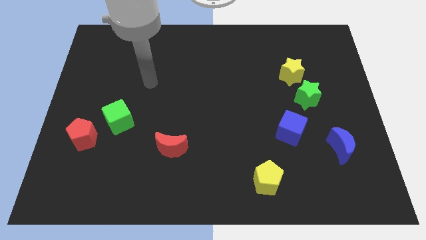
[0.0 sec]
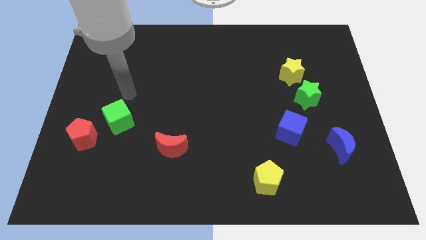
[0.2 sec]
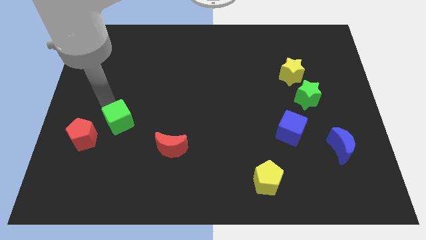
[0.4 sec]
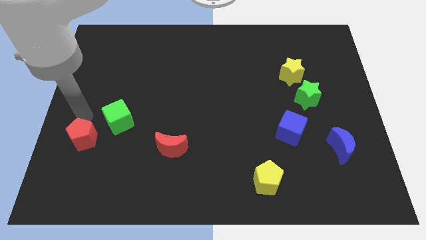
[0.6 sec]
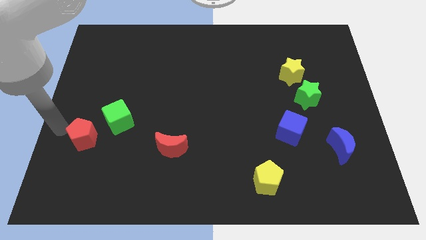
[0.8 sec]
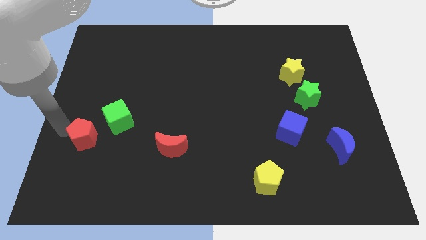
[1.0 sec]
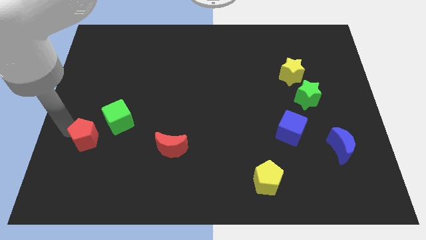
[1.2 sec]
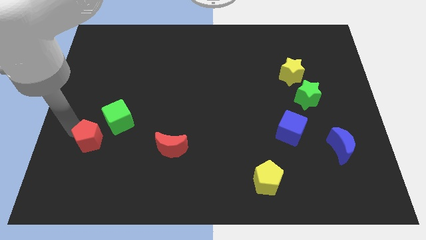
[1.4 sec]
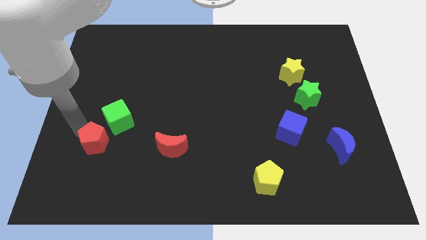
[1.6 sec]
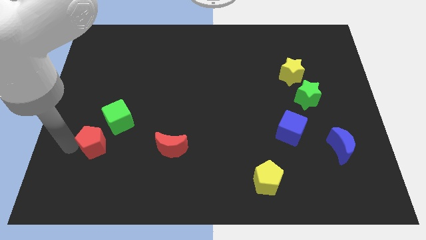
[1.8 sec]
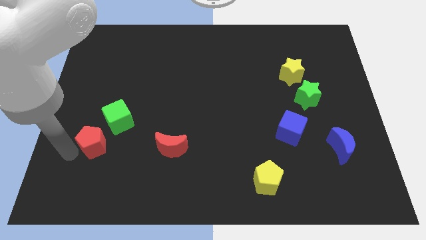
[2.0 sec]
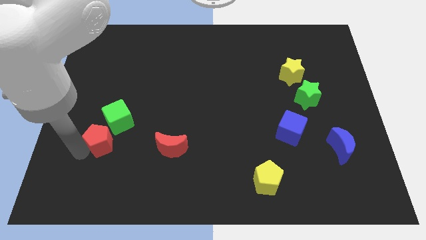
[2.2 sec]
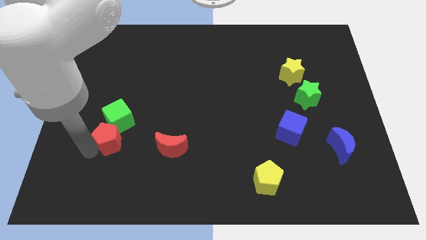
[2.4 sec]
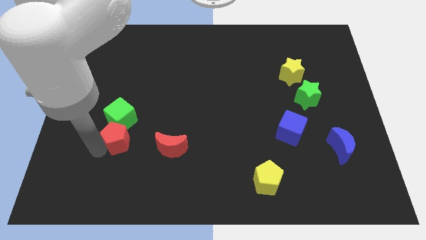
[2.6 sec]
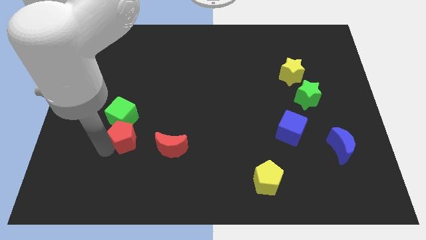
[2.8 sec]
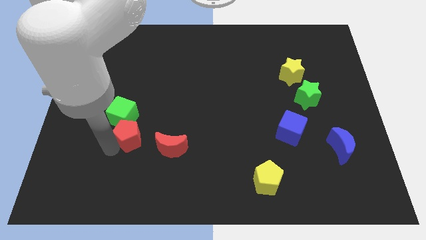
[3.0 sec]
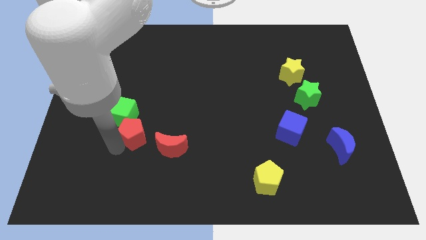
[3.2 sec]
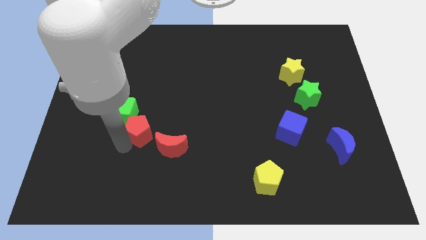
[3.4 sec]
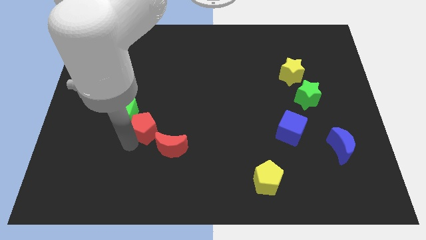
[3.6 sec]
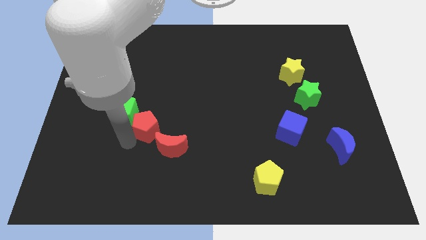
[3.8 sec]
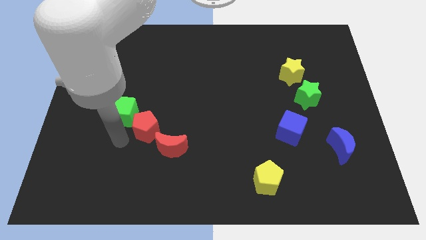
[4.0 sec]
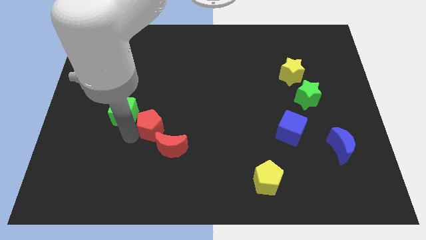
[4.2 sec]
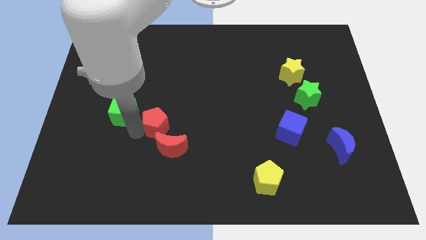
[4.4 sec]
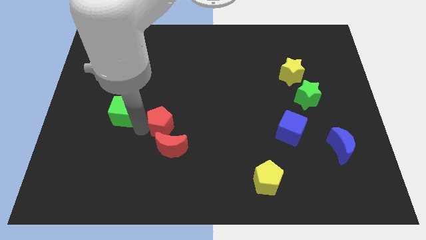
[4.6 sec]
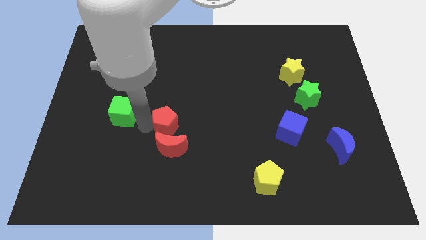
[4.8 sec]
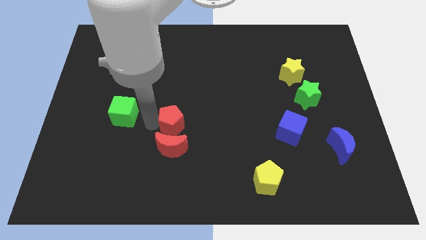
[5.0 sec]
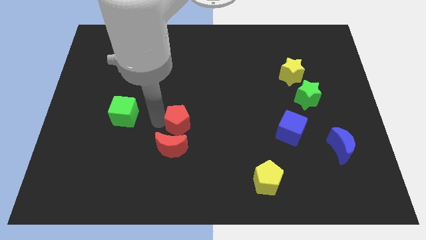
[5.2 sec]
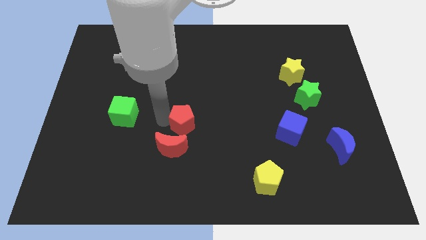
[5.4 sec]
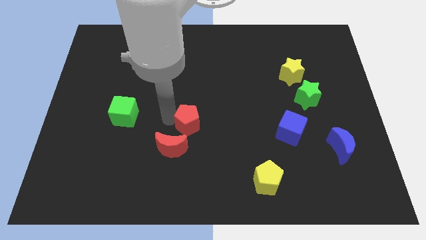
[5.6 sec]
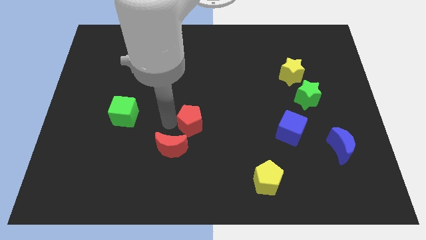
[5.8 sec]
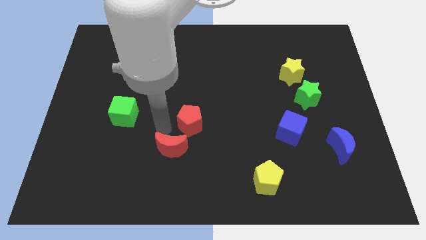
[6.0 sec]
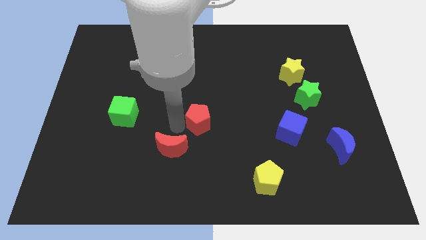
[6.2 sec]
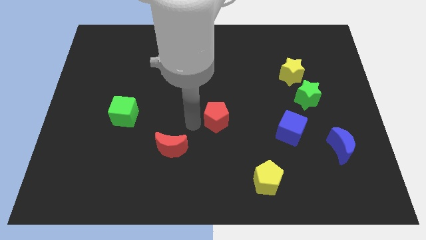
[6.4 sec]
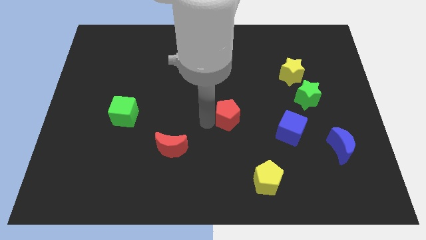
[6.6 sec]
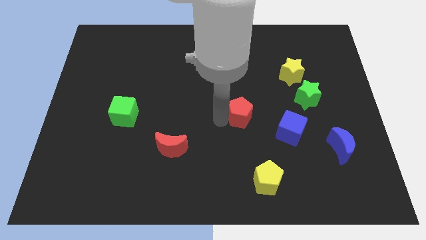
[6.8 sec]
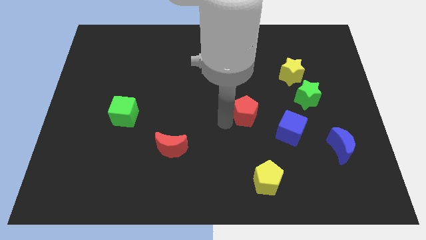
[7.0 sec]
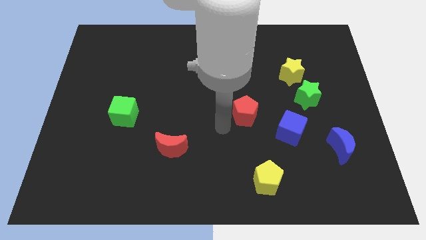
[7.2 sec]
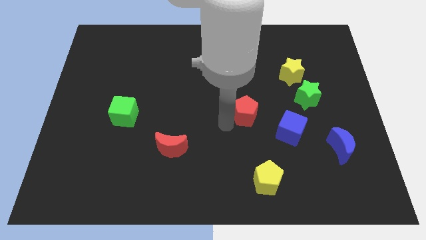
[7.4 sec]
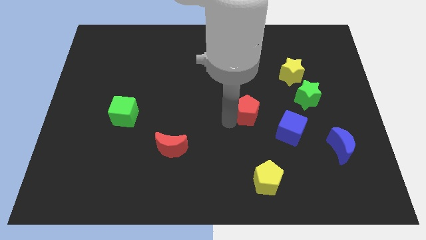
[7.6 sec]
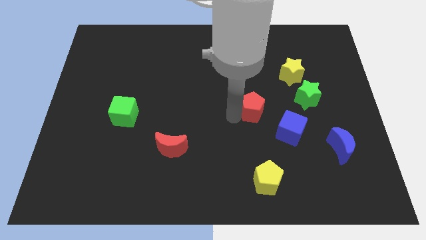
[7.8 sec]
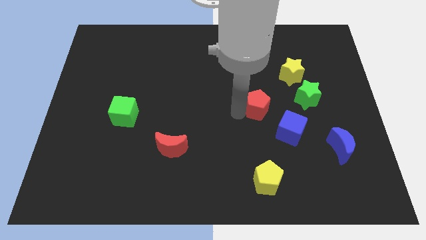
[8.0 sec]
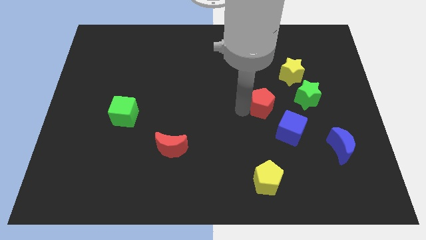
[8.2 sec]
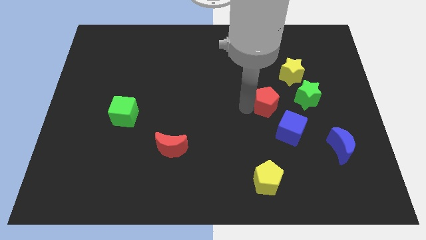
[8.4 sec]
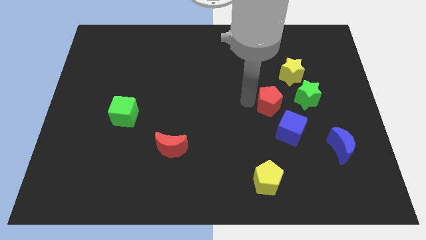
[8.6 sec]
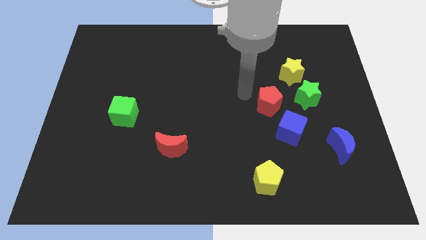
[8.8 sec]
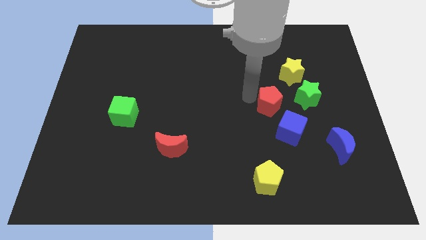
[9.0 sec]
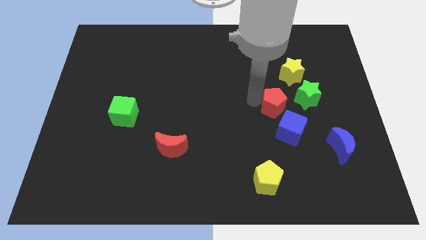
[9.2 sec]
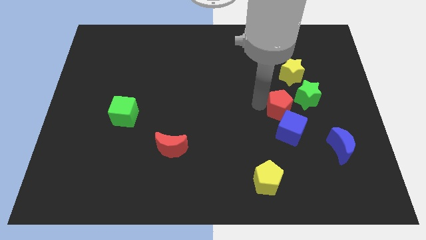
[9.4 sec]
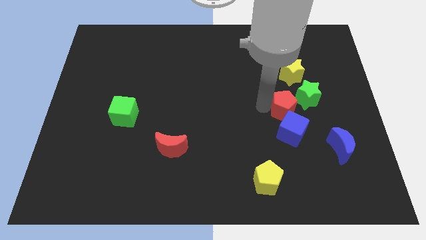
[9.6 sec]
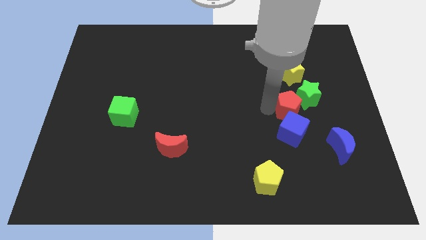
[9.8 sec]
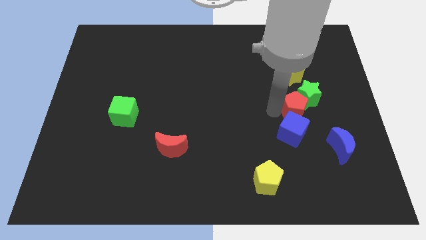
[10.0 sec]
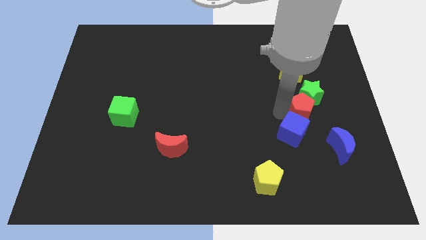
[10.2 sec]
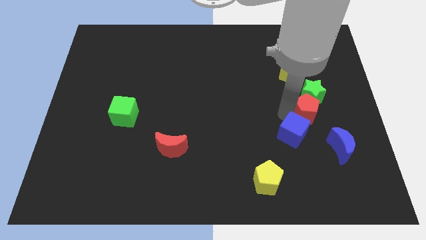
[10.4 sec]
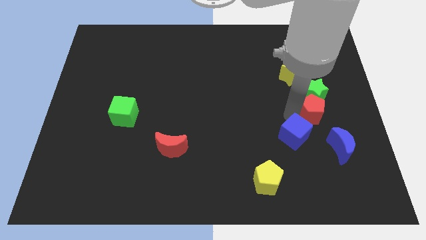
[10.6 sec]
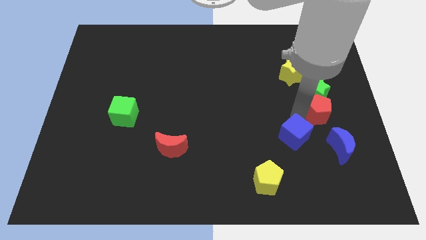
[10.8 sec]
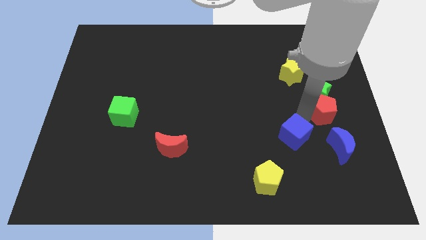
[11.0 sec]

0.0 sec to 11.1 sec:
push the red pentagon to the right side of the board
